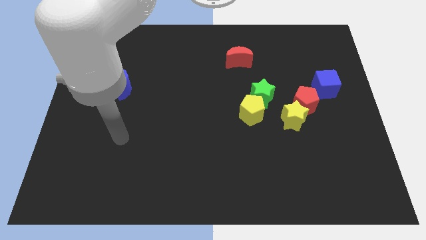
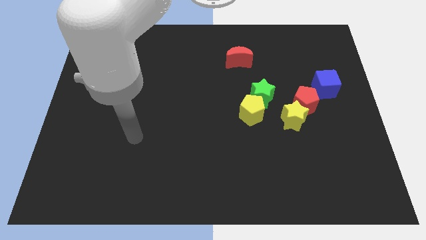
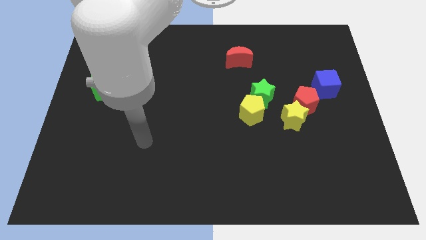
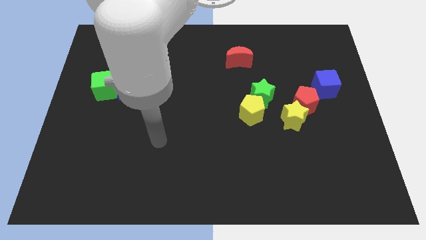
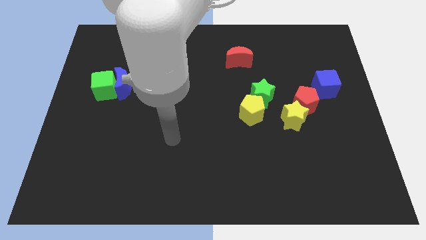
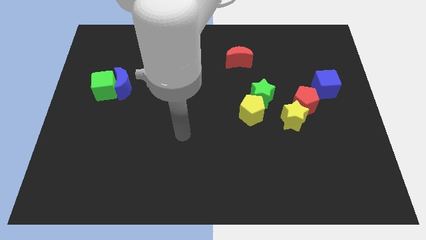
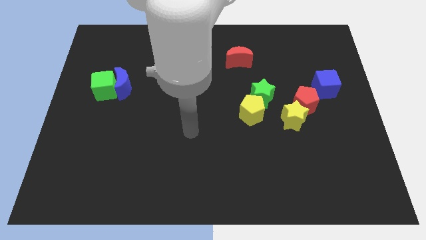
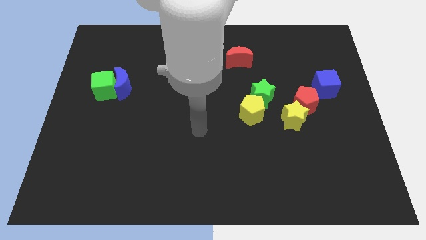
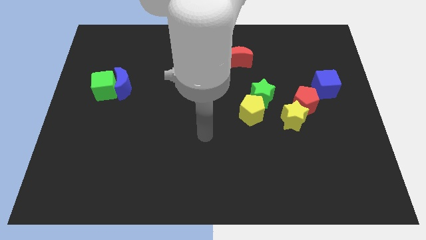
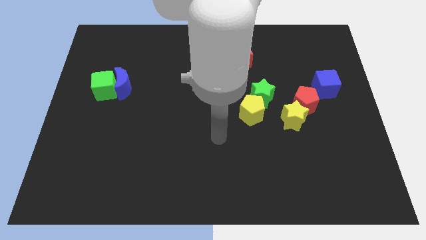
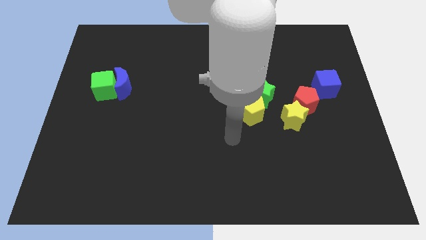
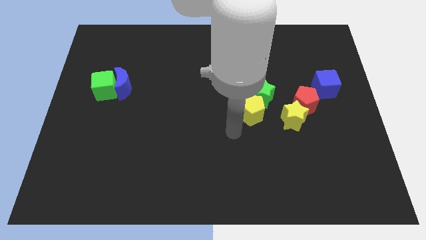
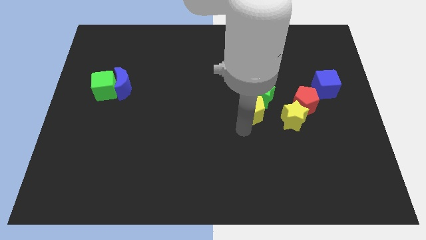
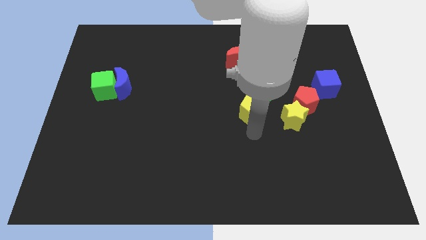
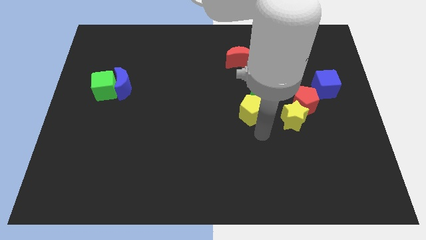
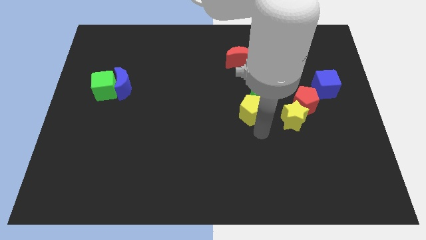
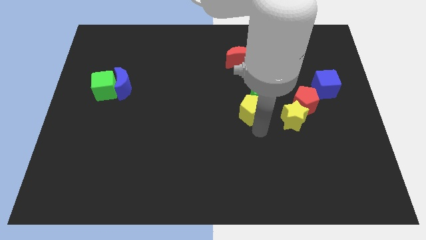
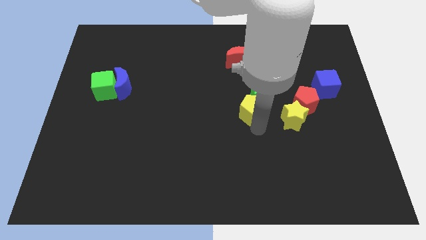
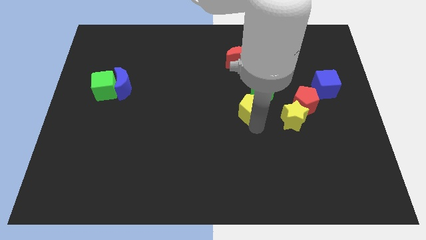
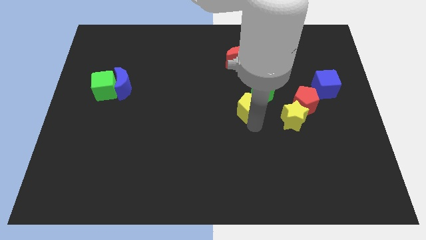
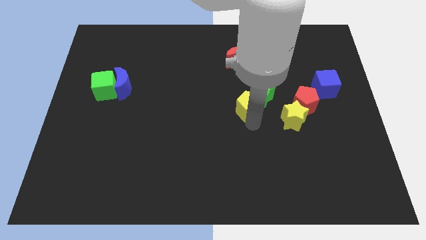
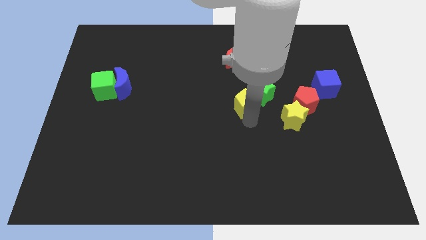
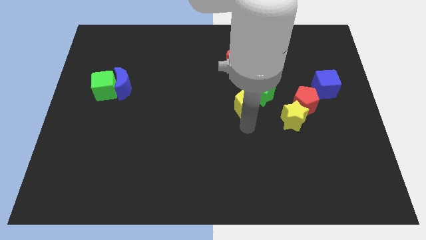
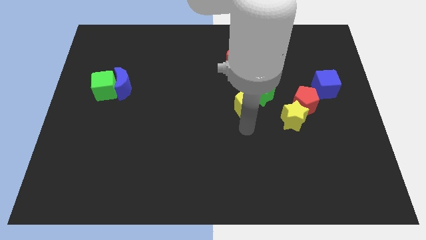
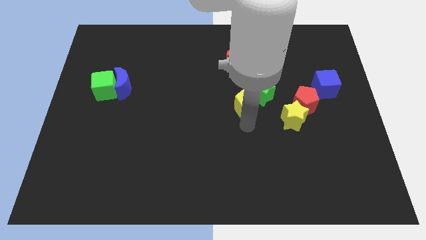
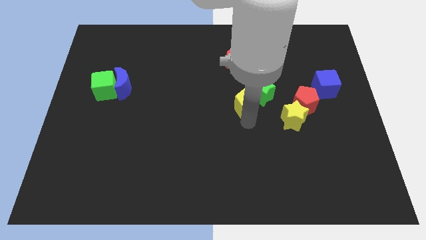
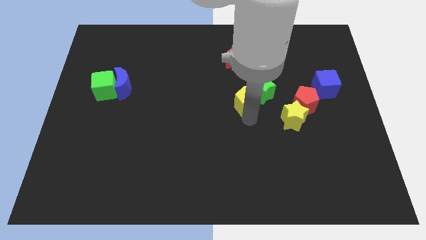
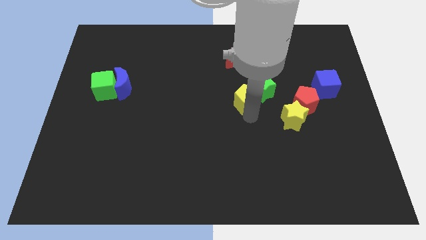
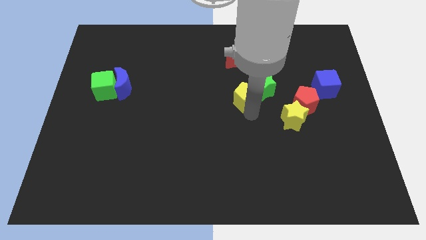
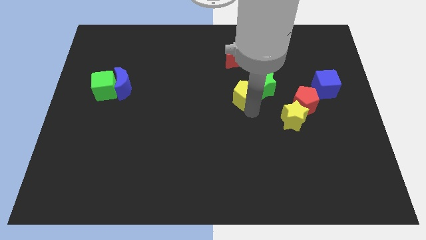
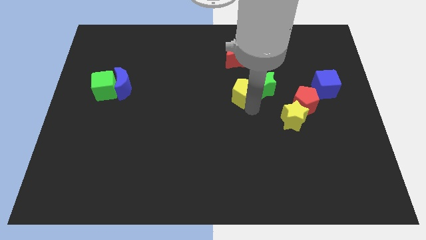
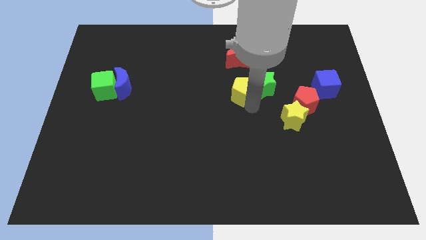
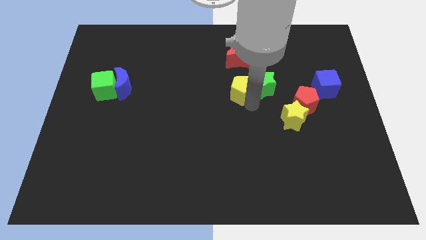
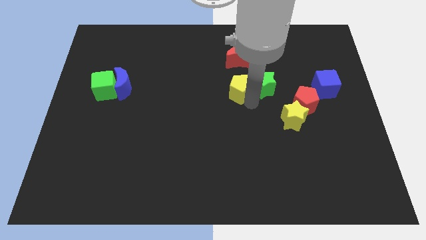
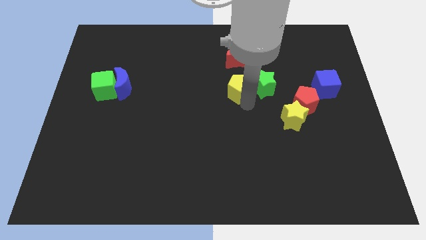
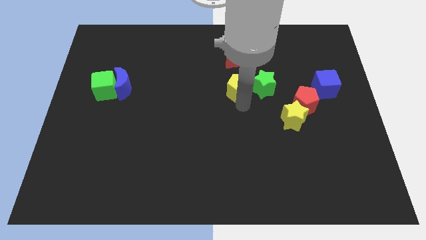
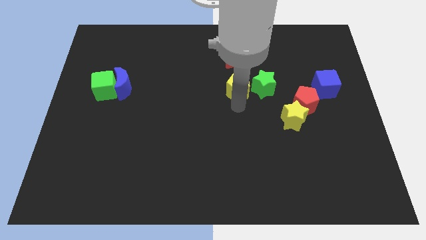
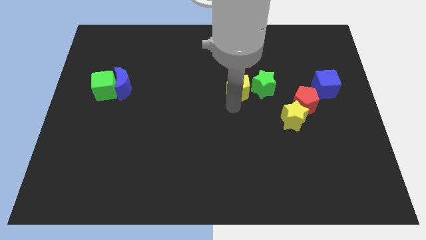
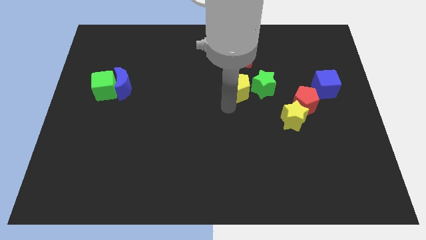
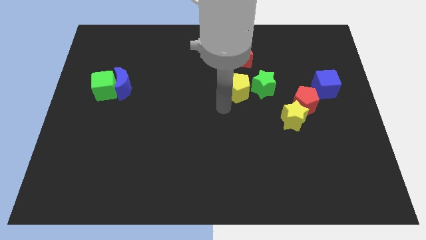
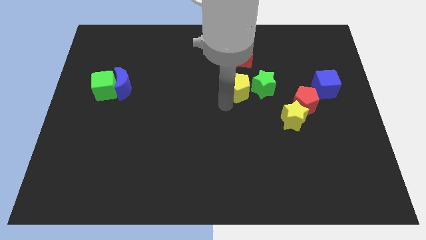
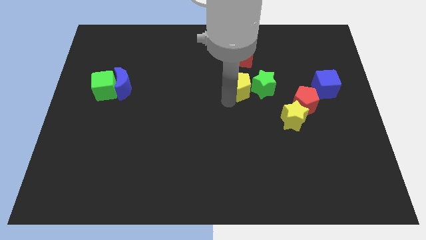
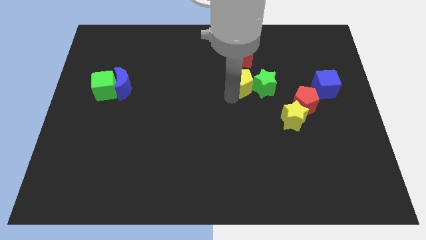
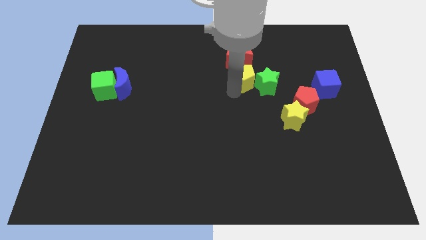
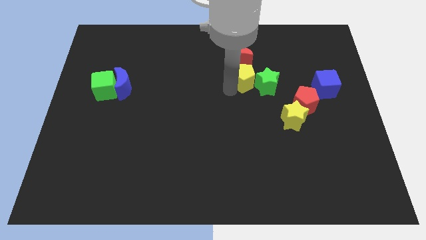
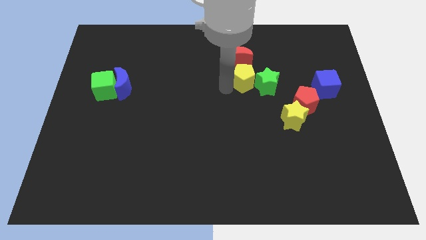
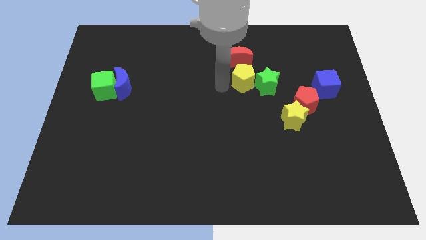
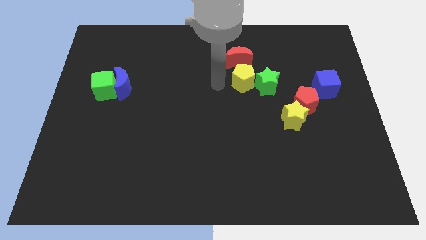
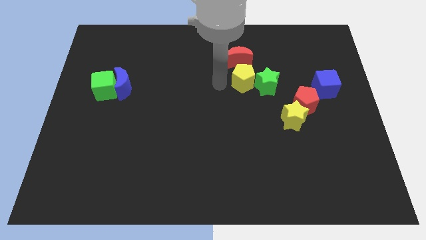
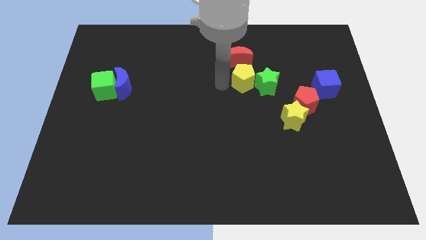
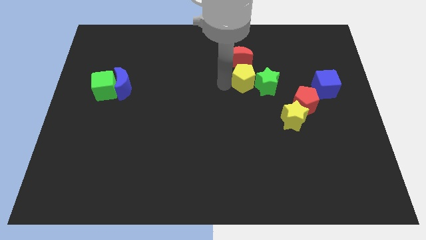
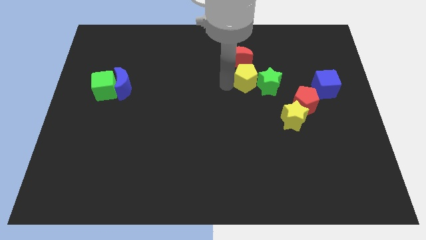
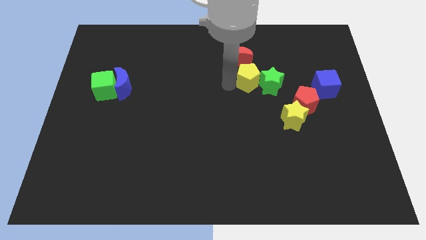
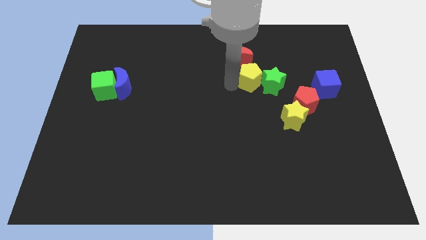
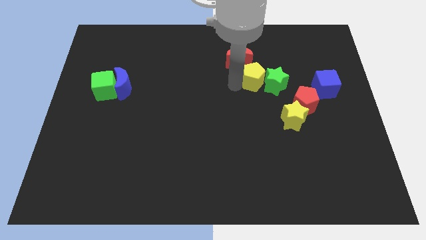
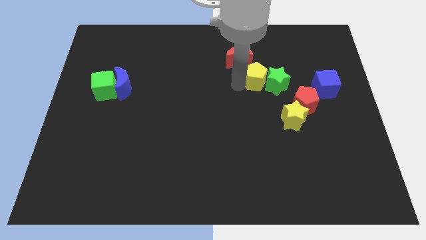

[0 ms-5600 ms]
move the yellow pentagon a bit up and then to the right

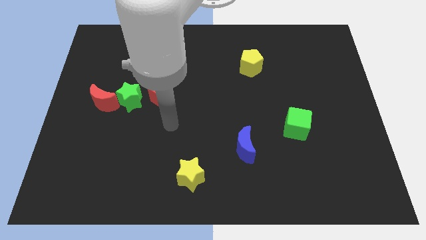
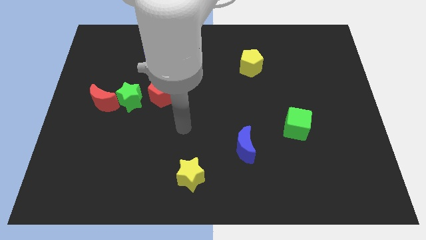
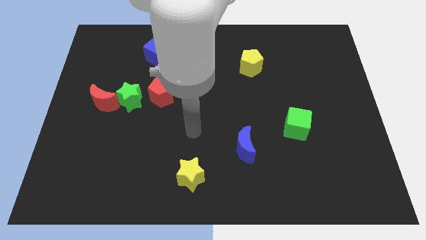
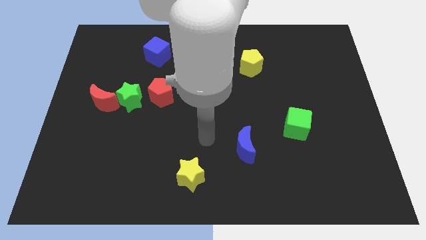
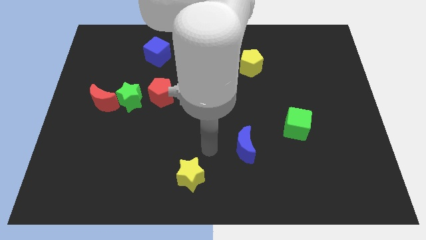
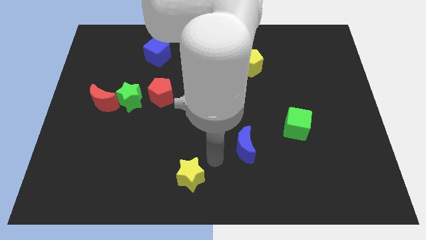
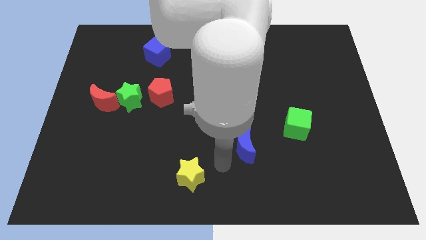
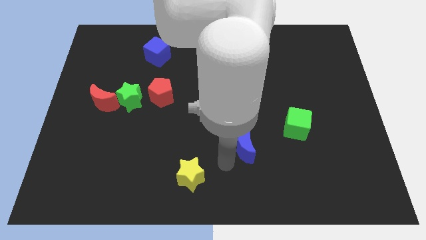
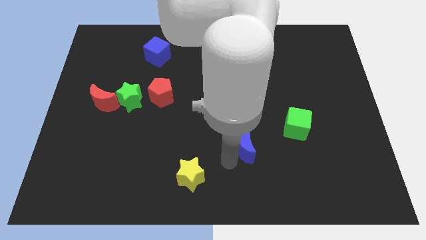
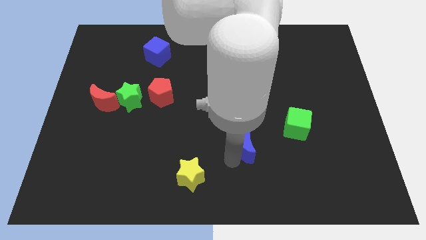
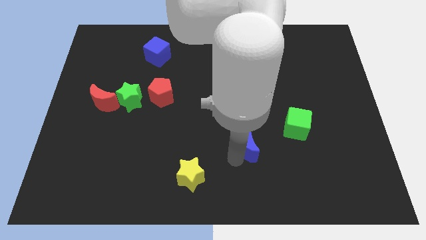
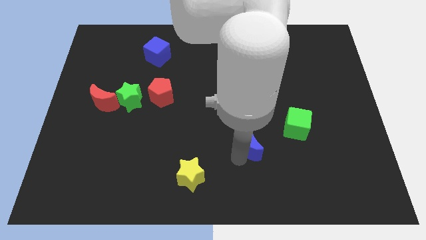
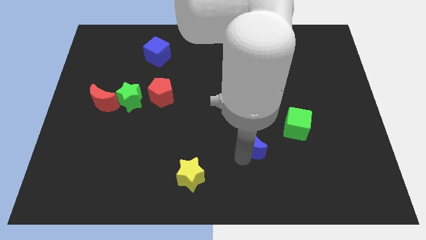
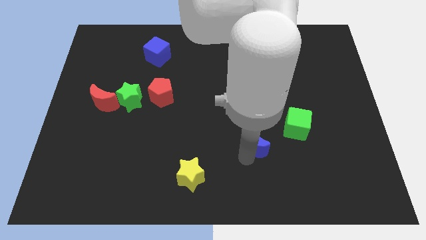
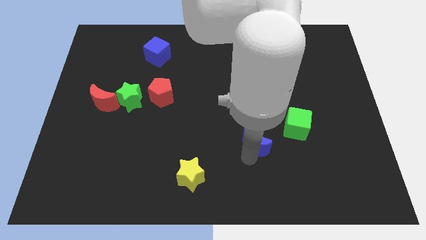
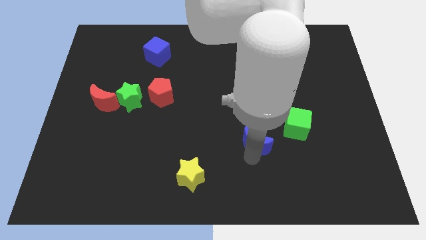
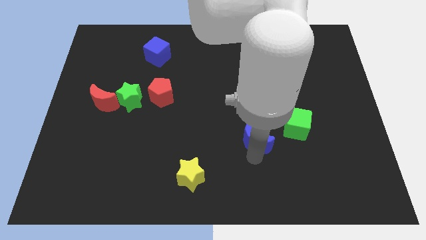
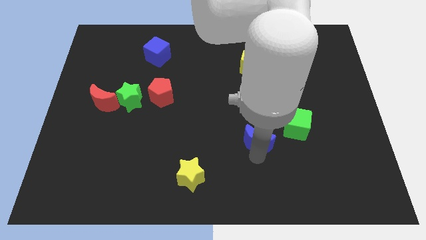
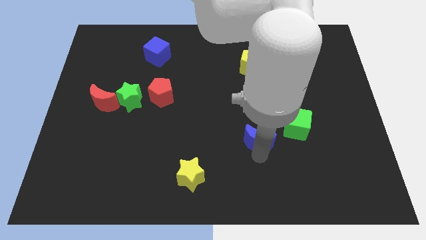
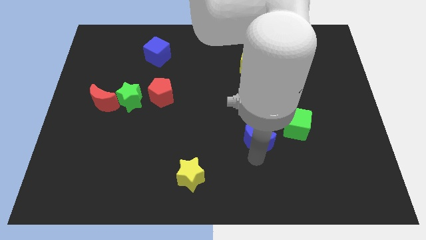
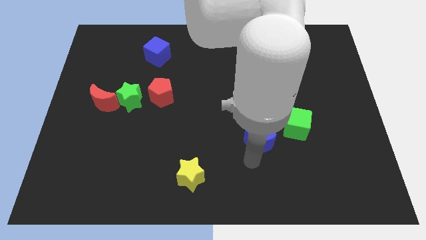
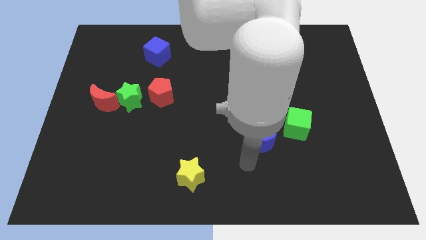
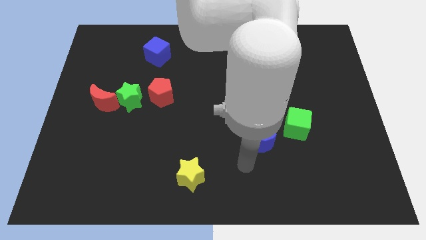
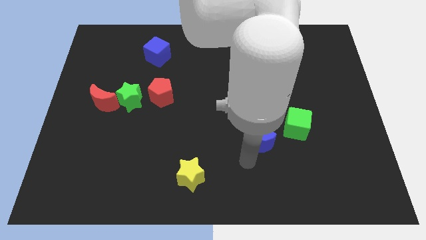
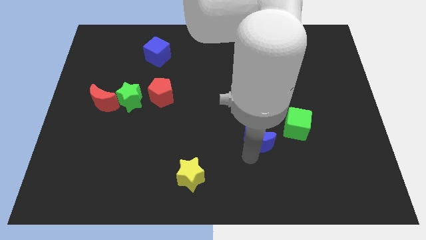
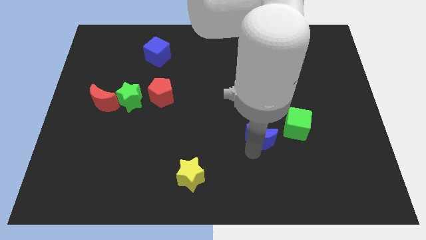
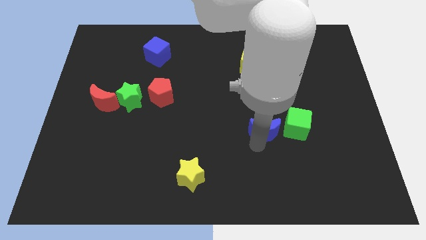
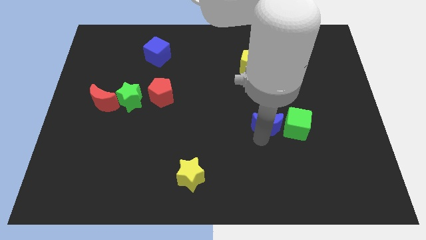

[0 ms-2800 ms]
push the blue moon up and then right a little bit
